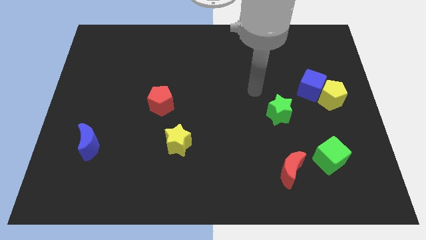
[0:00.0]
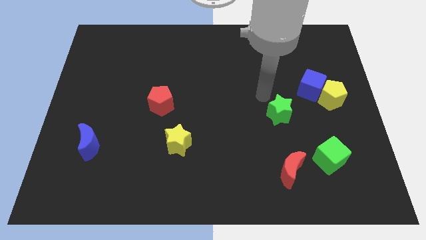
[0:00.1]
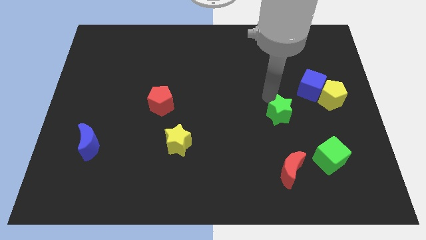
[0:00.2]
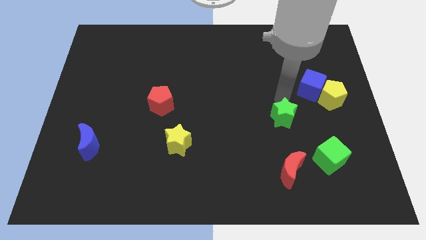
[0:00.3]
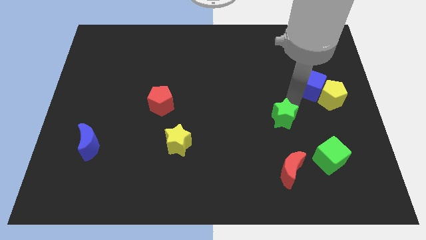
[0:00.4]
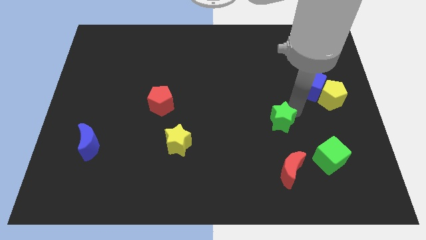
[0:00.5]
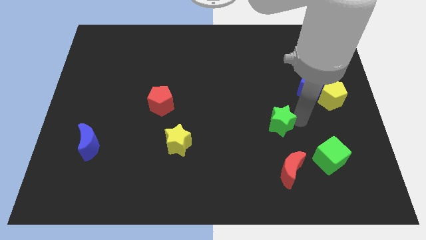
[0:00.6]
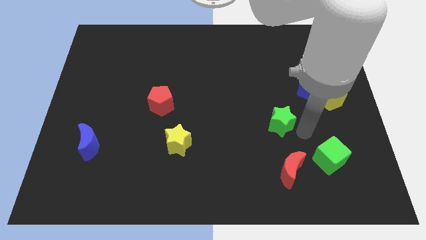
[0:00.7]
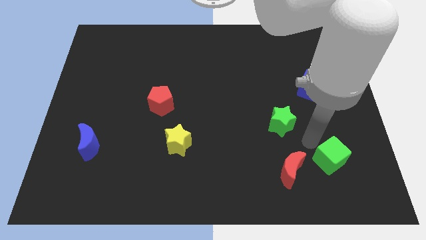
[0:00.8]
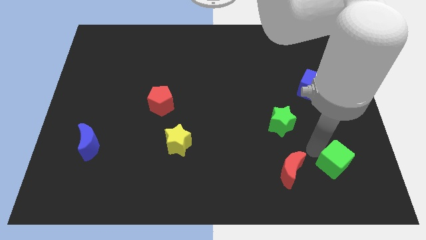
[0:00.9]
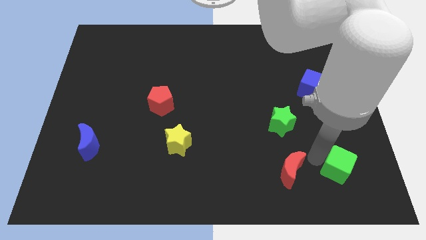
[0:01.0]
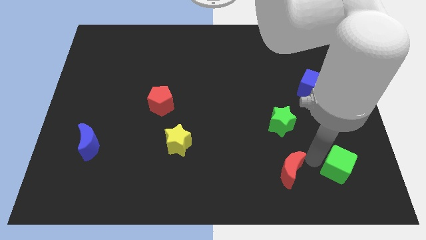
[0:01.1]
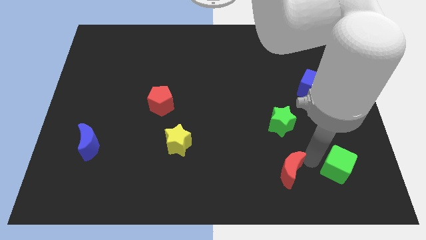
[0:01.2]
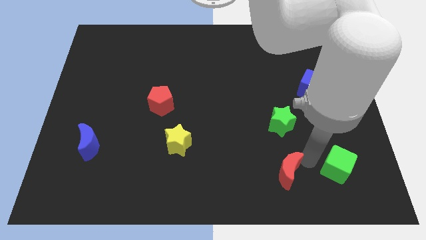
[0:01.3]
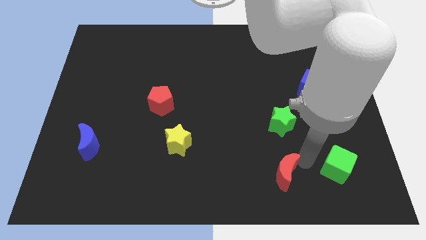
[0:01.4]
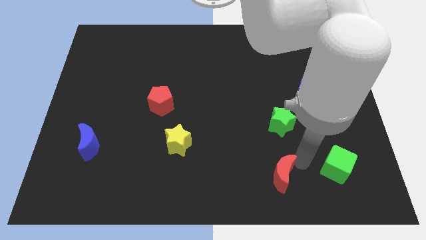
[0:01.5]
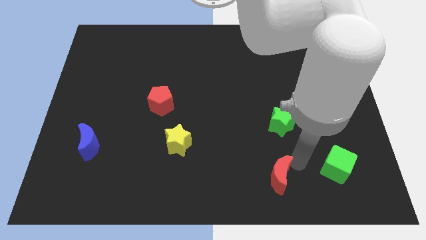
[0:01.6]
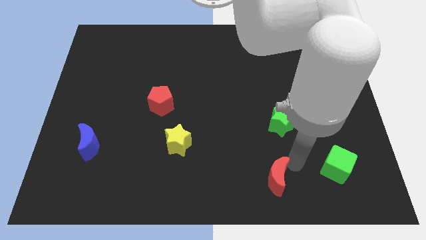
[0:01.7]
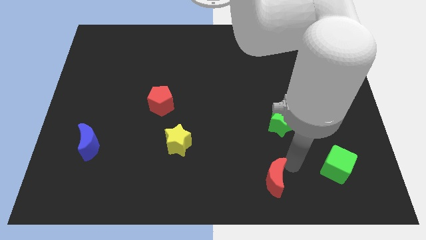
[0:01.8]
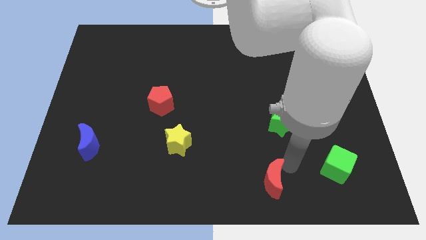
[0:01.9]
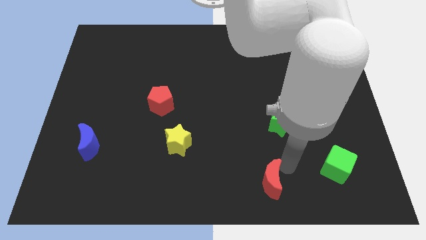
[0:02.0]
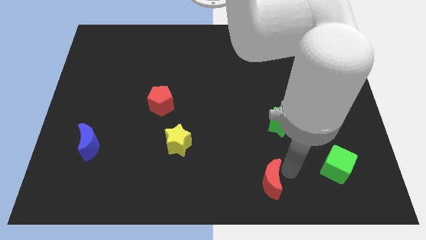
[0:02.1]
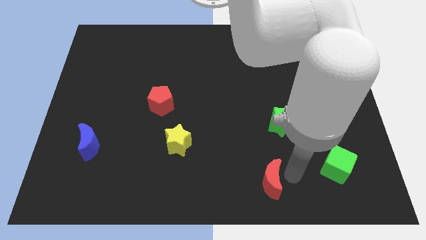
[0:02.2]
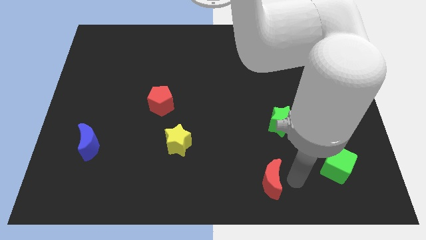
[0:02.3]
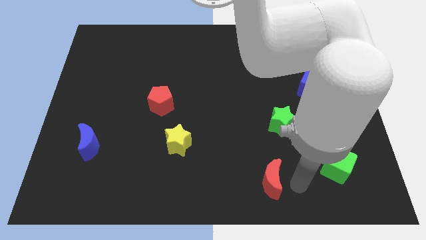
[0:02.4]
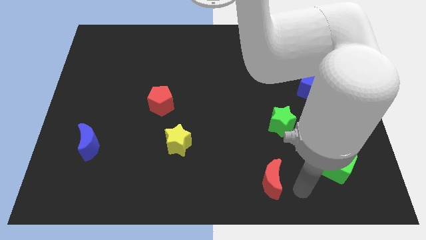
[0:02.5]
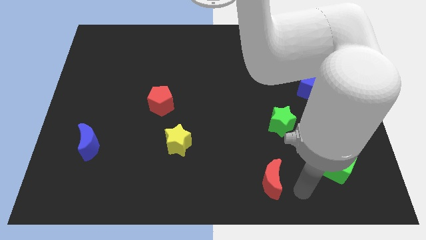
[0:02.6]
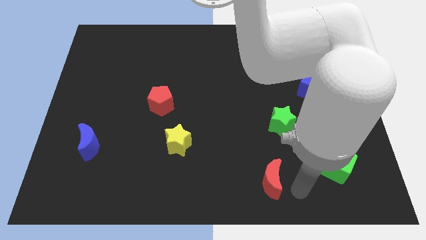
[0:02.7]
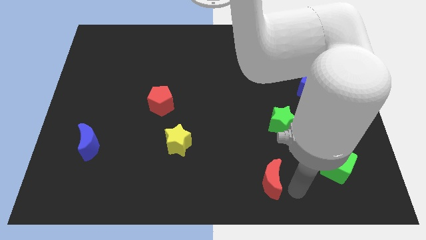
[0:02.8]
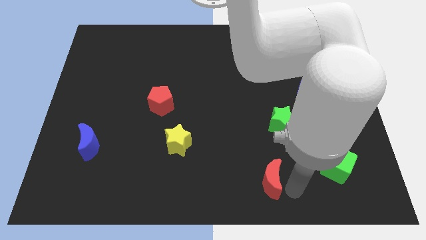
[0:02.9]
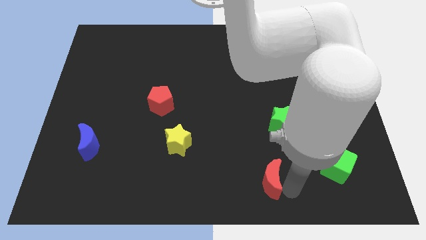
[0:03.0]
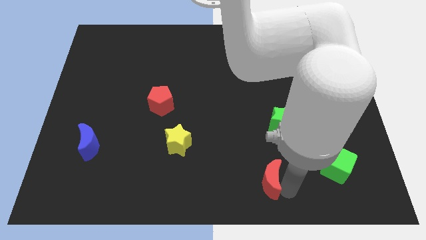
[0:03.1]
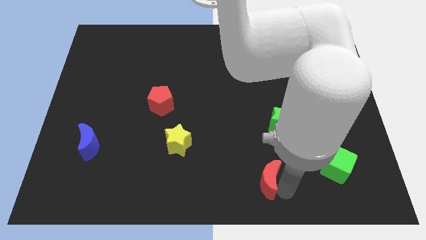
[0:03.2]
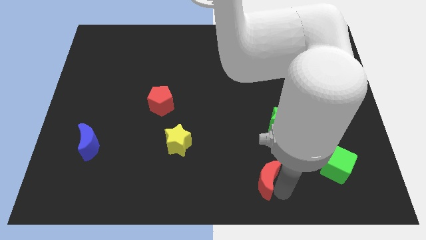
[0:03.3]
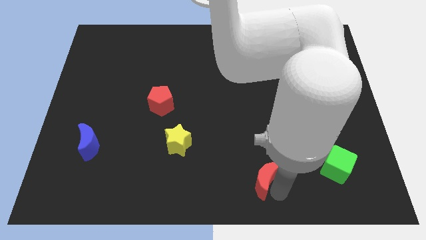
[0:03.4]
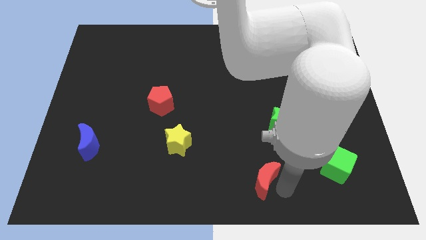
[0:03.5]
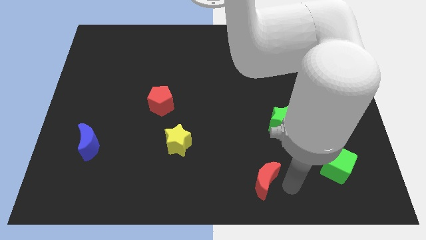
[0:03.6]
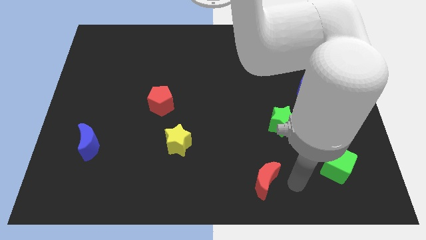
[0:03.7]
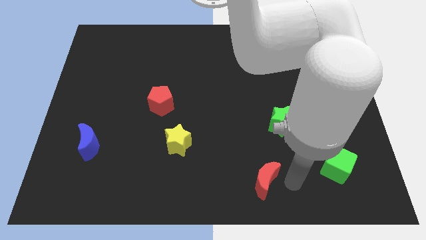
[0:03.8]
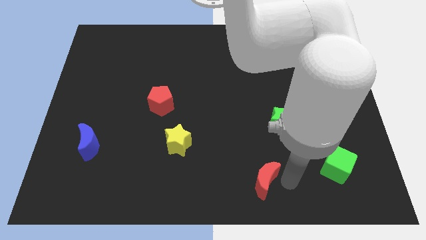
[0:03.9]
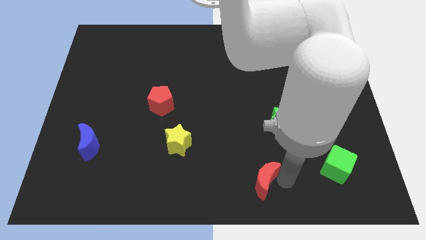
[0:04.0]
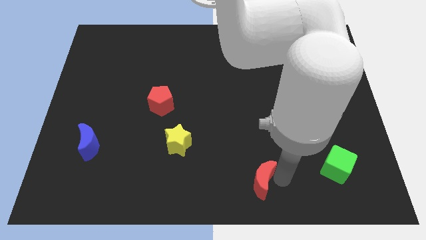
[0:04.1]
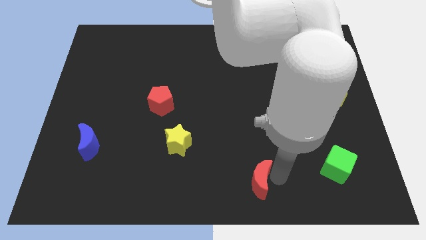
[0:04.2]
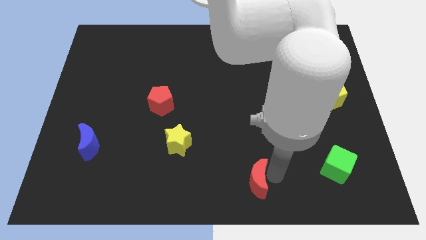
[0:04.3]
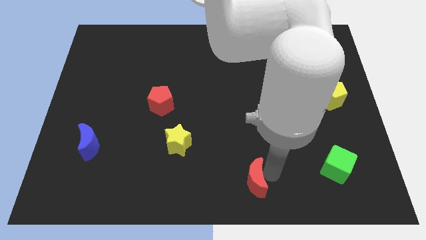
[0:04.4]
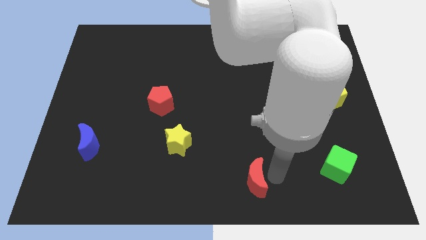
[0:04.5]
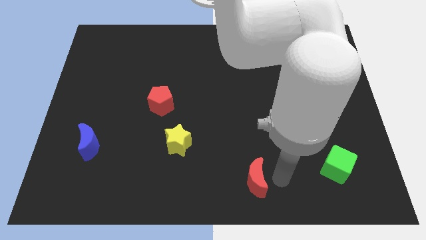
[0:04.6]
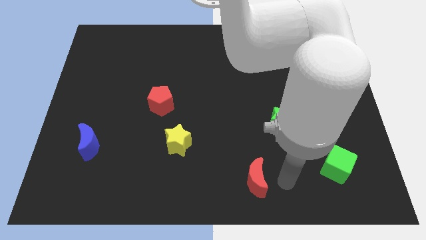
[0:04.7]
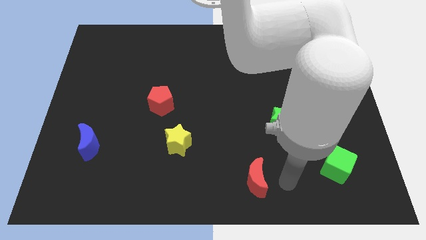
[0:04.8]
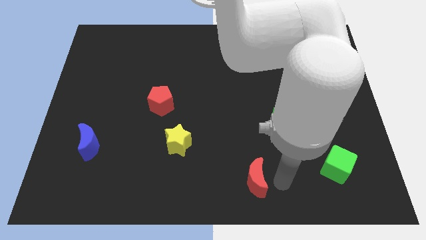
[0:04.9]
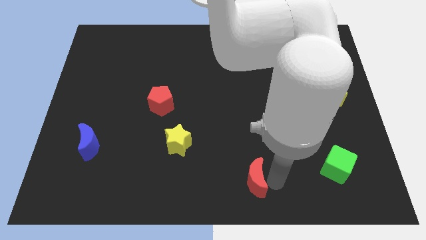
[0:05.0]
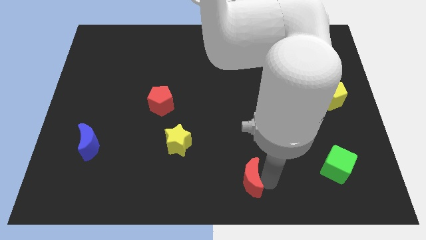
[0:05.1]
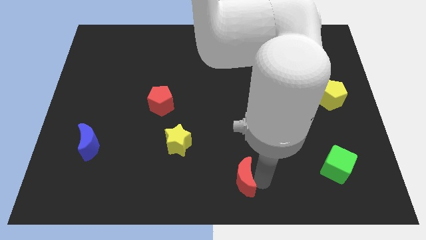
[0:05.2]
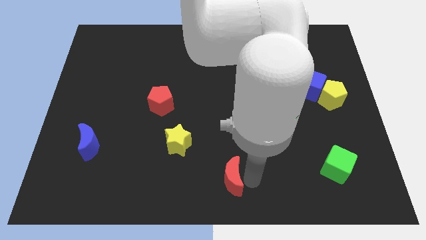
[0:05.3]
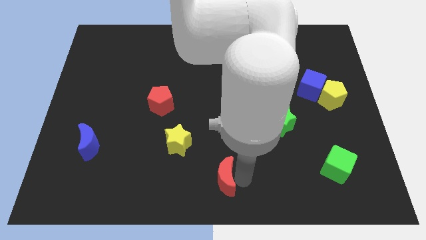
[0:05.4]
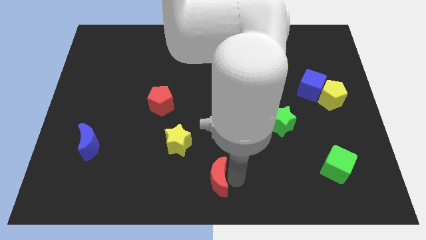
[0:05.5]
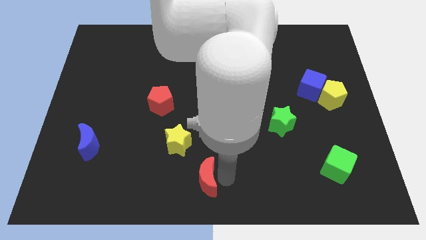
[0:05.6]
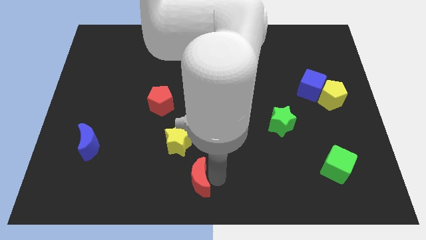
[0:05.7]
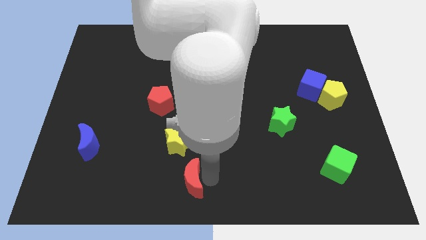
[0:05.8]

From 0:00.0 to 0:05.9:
push the red moon to the left

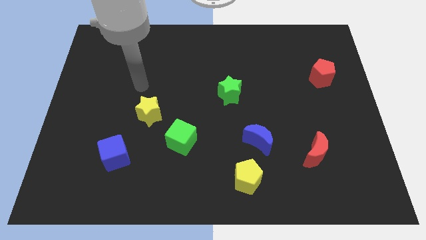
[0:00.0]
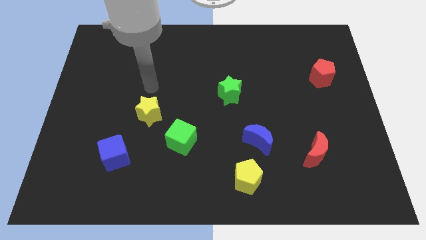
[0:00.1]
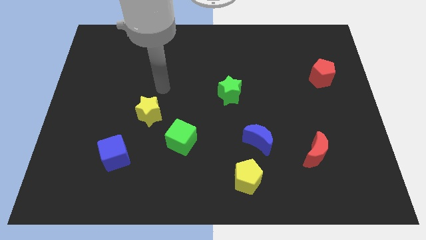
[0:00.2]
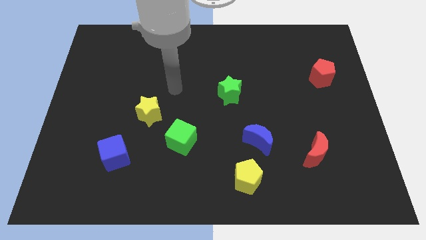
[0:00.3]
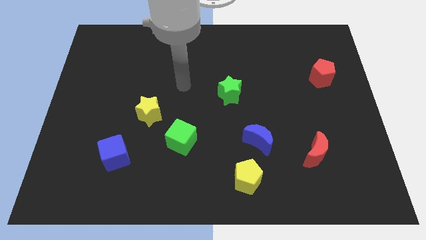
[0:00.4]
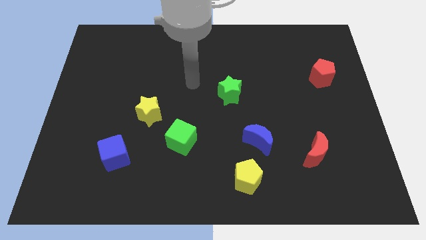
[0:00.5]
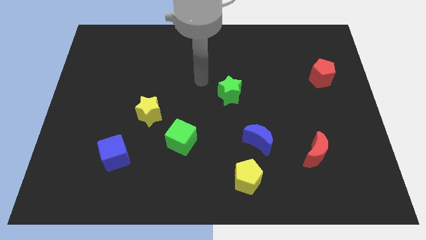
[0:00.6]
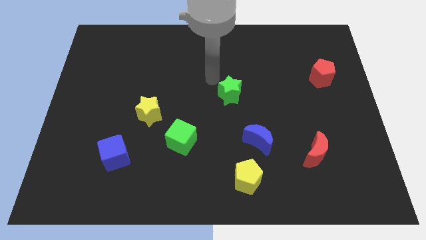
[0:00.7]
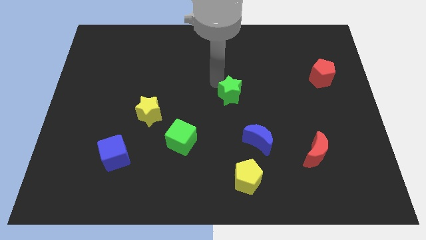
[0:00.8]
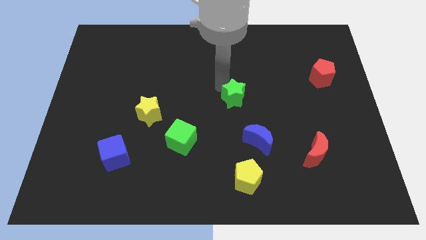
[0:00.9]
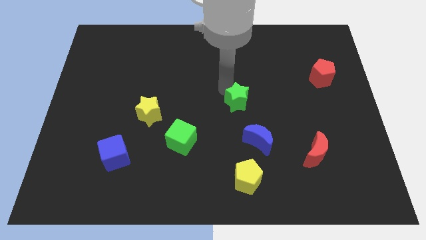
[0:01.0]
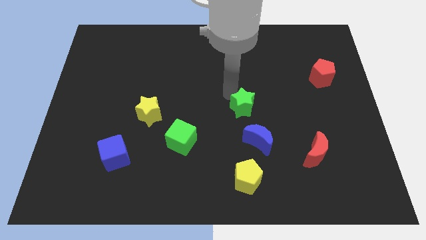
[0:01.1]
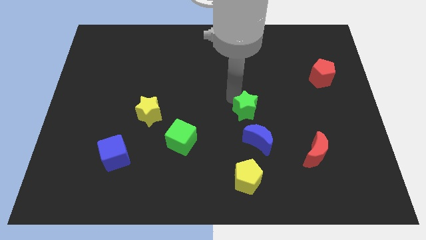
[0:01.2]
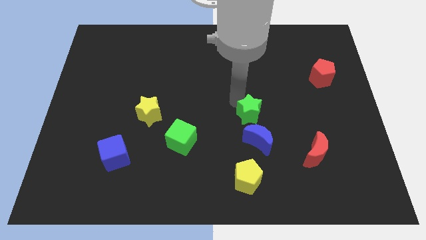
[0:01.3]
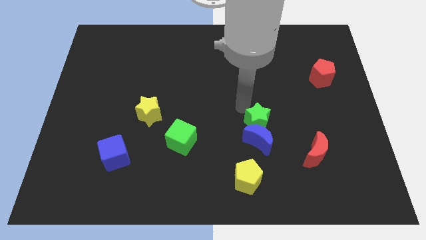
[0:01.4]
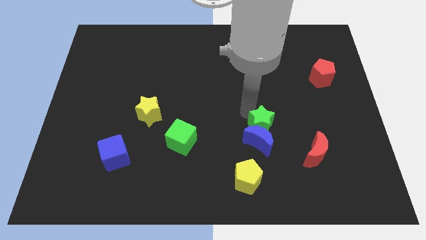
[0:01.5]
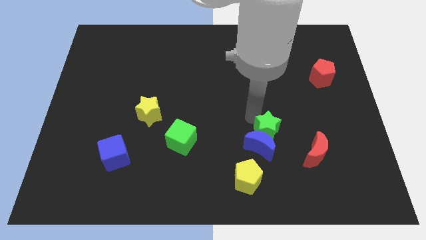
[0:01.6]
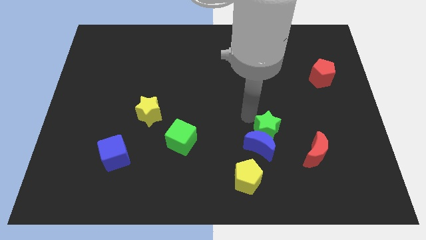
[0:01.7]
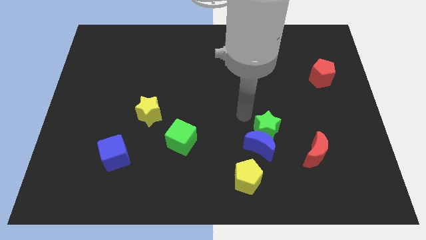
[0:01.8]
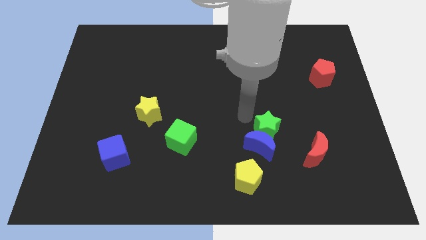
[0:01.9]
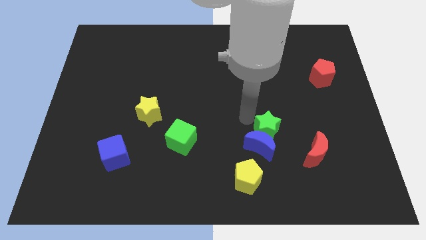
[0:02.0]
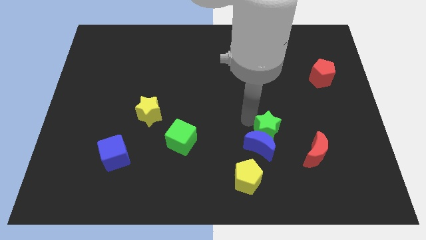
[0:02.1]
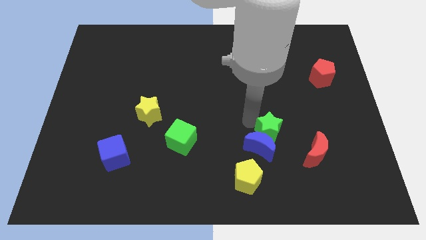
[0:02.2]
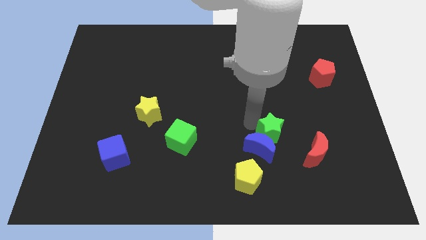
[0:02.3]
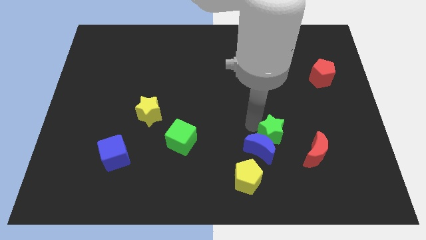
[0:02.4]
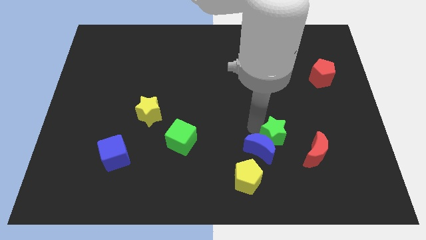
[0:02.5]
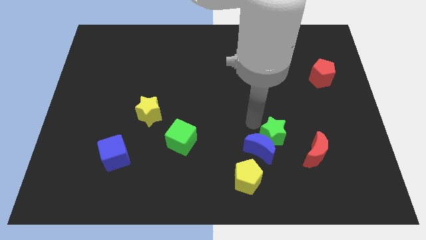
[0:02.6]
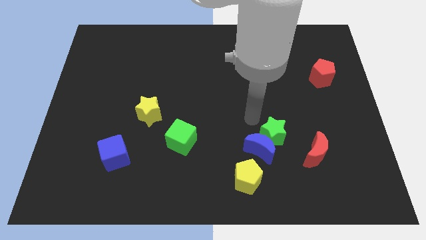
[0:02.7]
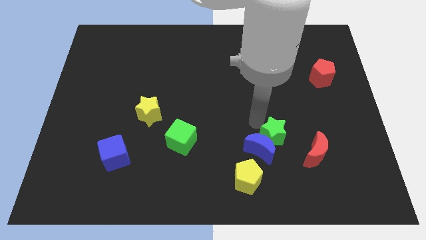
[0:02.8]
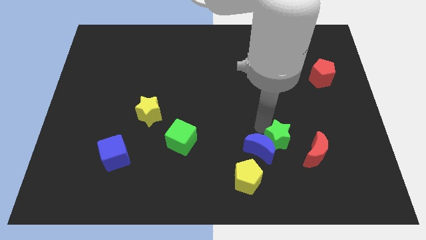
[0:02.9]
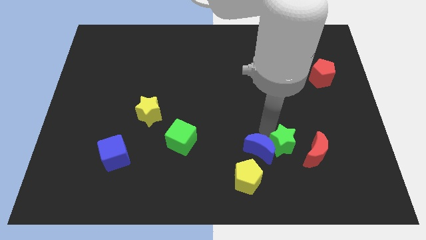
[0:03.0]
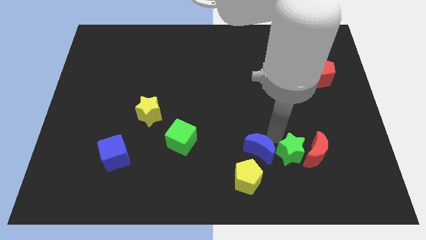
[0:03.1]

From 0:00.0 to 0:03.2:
push the green star down and right
